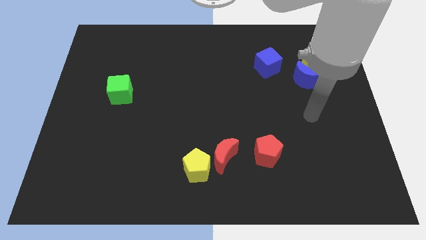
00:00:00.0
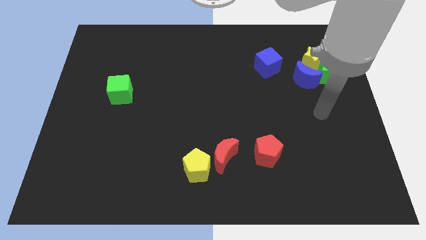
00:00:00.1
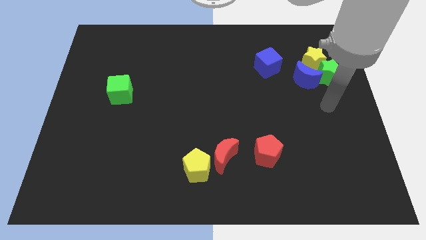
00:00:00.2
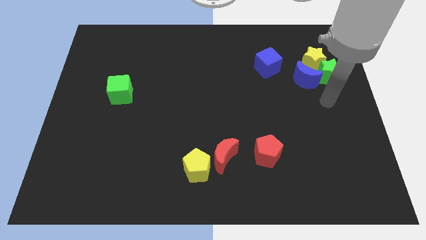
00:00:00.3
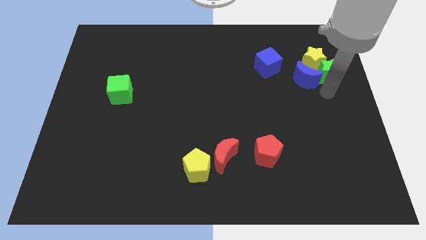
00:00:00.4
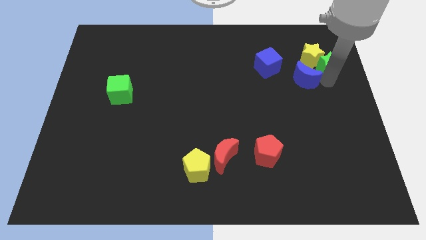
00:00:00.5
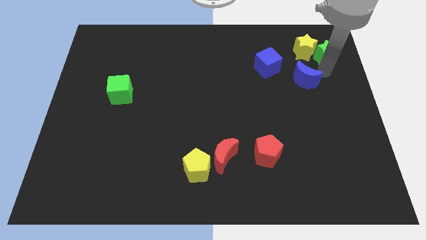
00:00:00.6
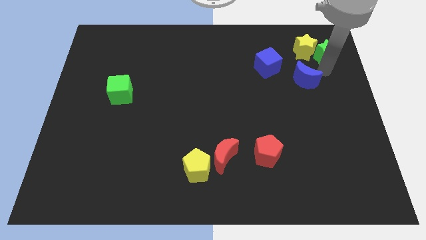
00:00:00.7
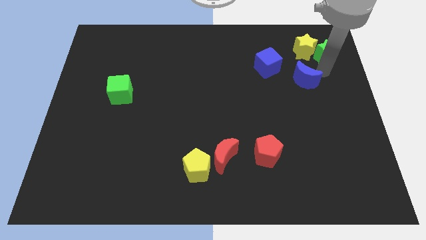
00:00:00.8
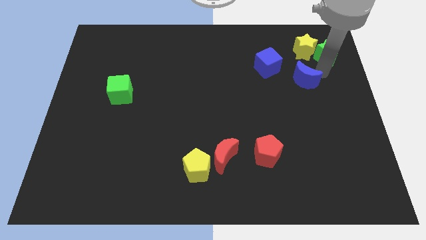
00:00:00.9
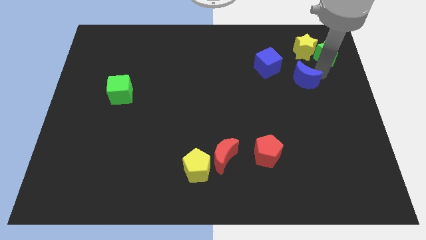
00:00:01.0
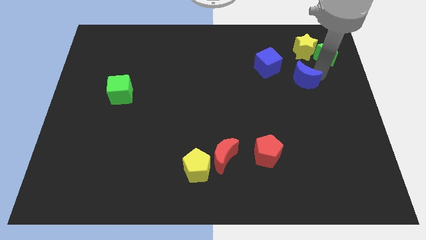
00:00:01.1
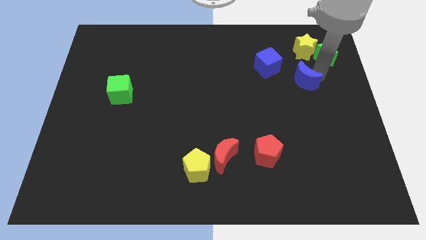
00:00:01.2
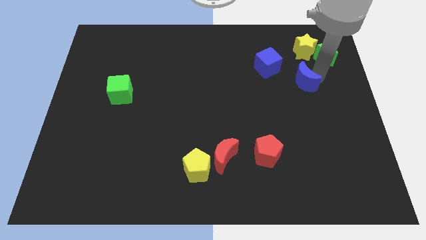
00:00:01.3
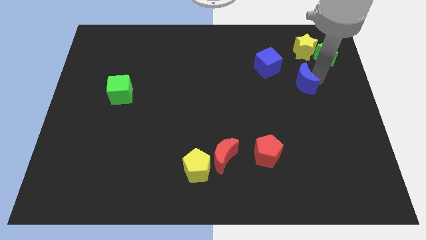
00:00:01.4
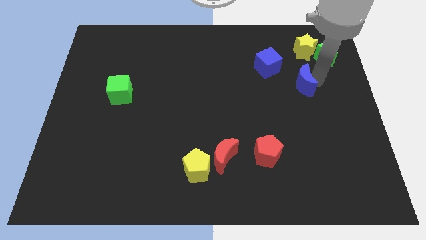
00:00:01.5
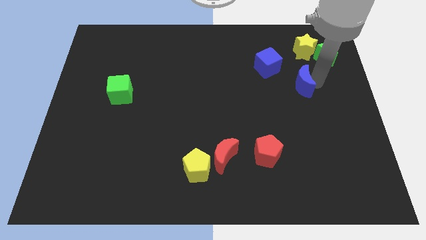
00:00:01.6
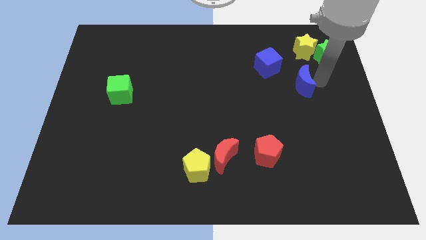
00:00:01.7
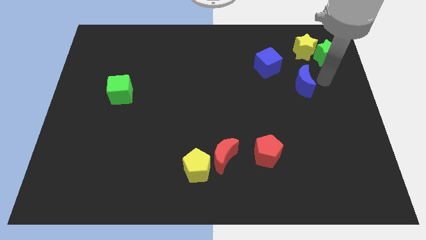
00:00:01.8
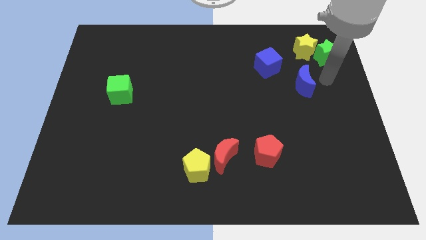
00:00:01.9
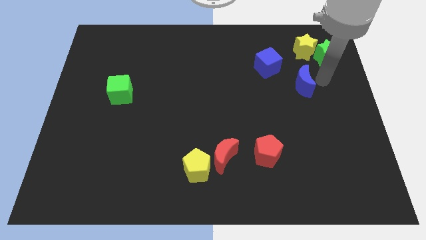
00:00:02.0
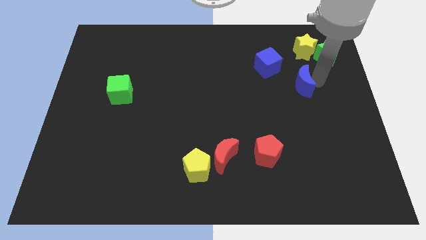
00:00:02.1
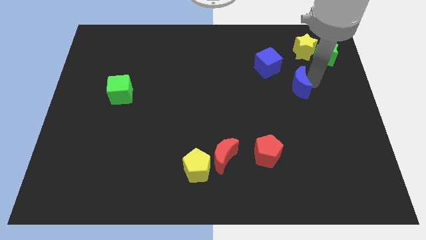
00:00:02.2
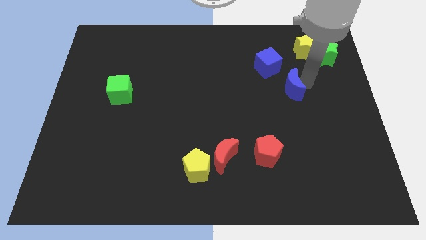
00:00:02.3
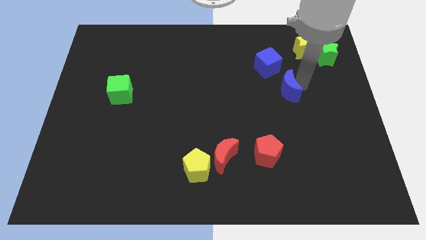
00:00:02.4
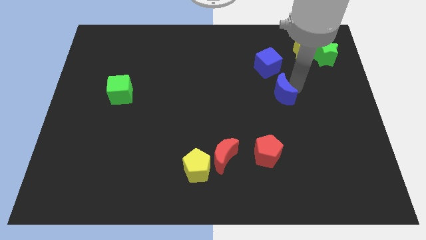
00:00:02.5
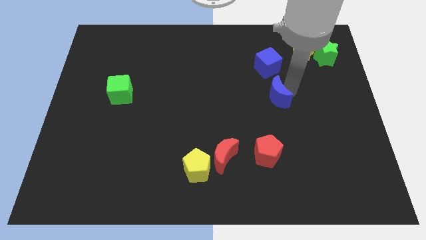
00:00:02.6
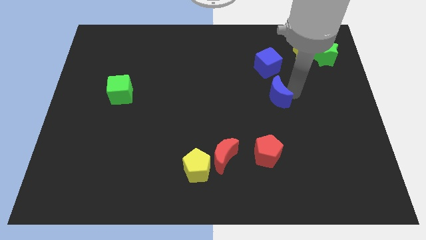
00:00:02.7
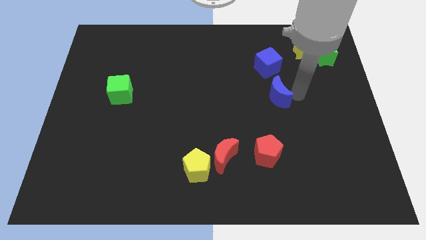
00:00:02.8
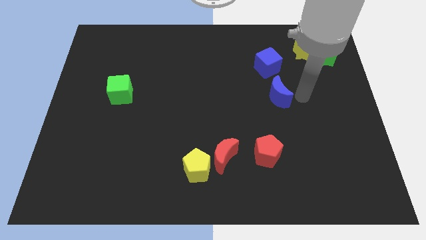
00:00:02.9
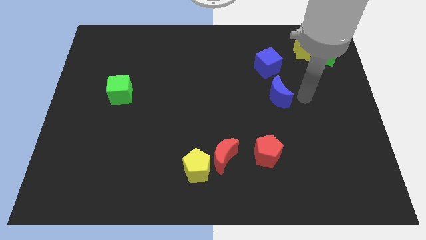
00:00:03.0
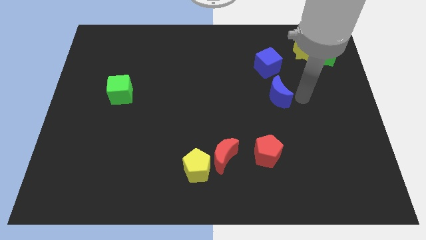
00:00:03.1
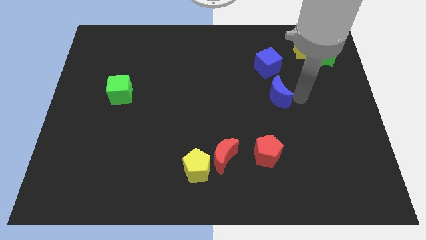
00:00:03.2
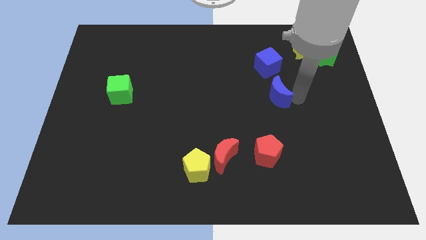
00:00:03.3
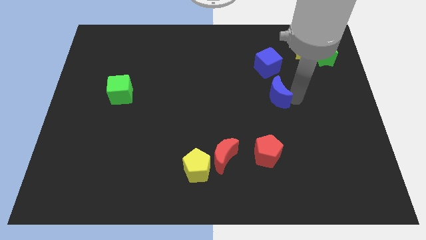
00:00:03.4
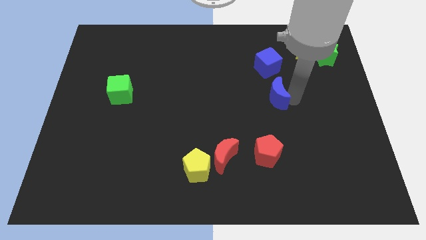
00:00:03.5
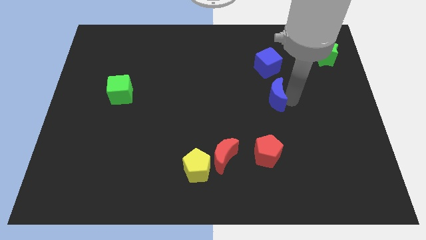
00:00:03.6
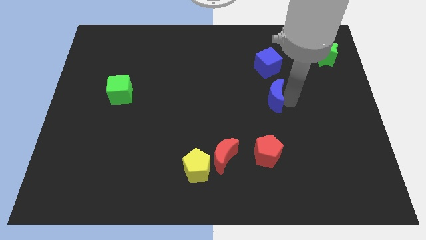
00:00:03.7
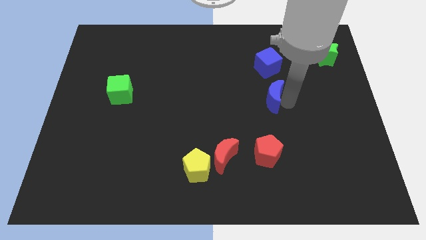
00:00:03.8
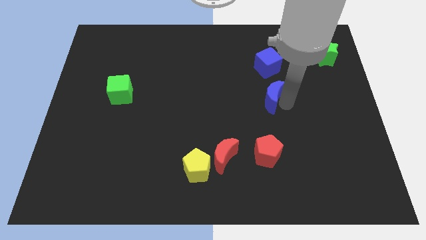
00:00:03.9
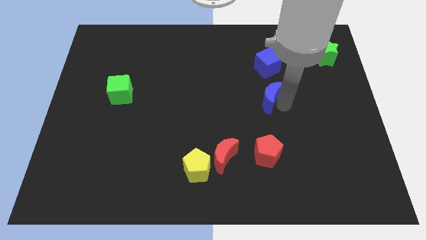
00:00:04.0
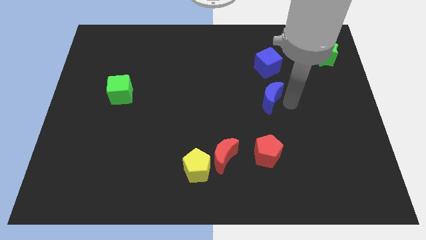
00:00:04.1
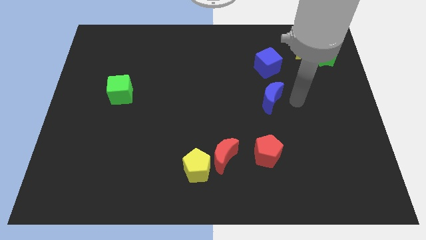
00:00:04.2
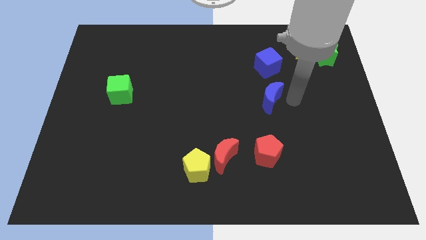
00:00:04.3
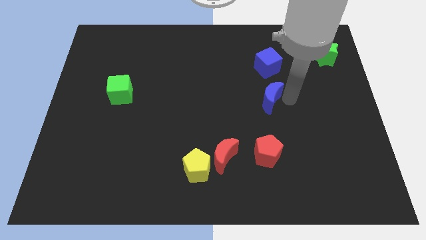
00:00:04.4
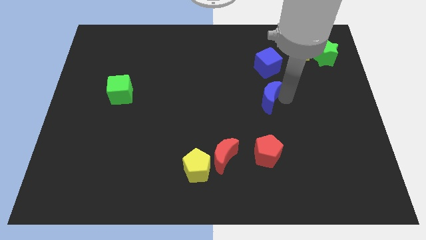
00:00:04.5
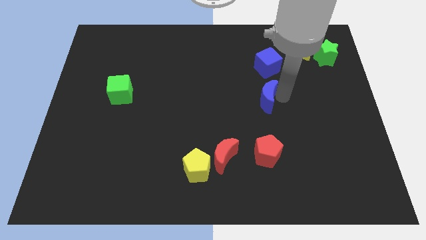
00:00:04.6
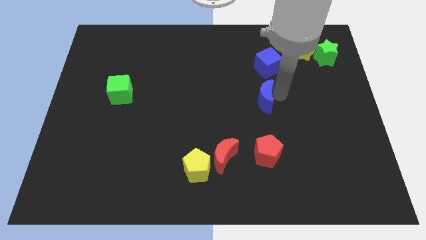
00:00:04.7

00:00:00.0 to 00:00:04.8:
slide the blue moon to the middle of the board

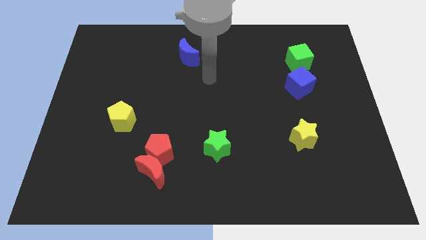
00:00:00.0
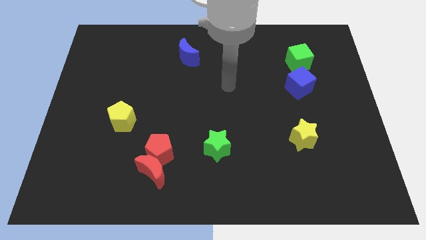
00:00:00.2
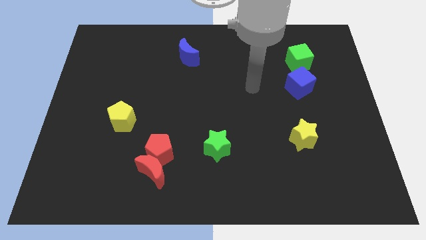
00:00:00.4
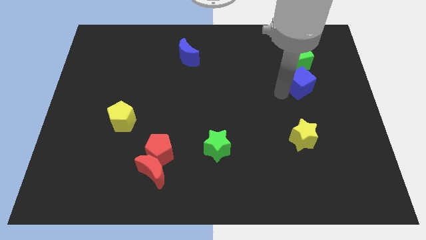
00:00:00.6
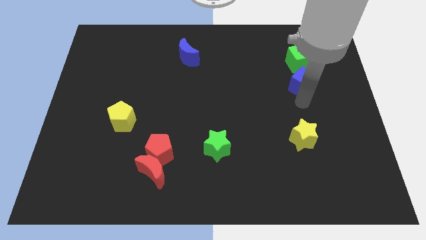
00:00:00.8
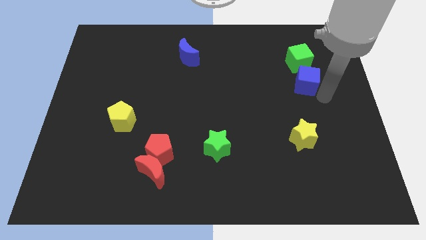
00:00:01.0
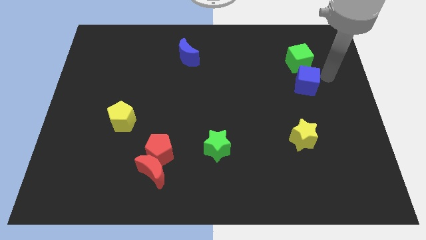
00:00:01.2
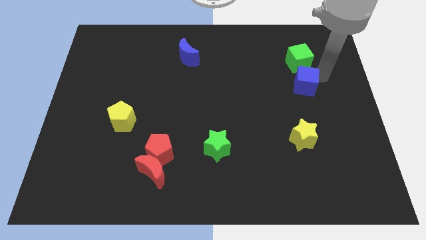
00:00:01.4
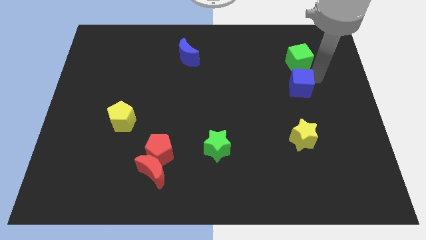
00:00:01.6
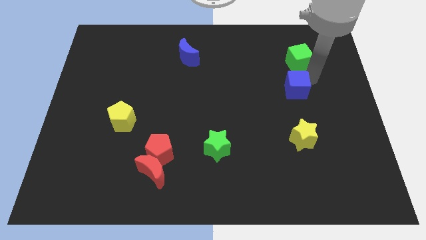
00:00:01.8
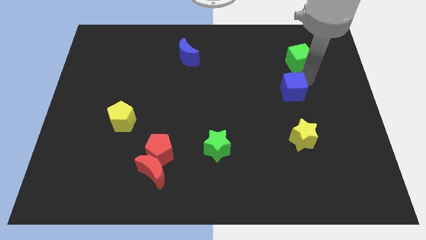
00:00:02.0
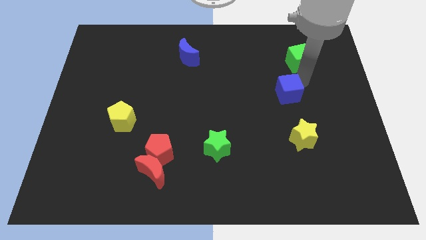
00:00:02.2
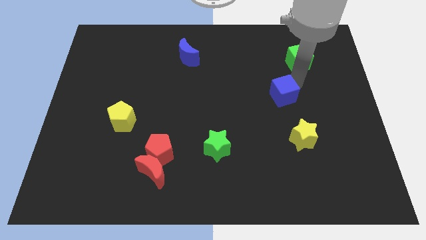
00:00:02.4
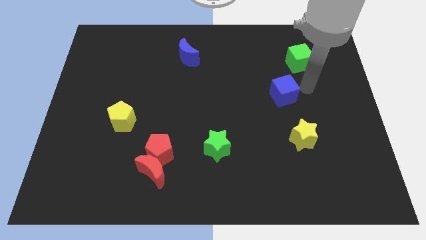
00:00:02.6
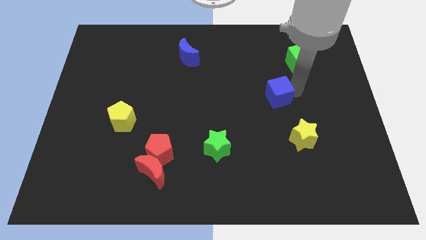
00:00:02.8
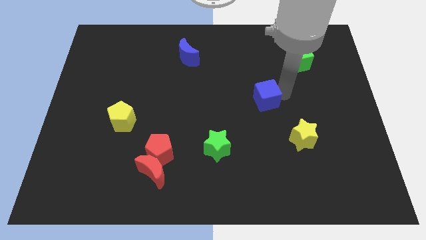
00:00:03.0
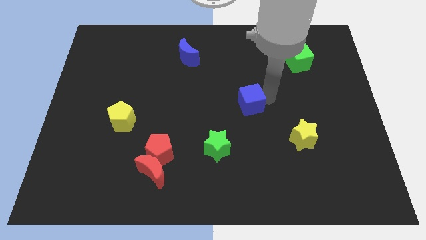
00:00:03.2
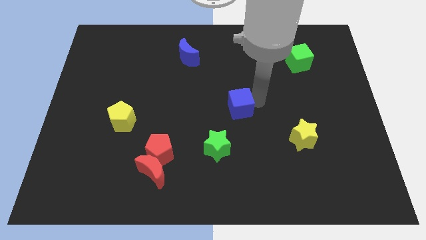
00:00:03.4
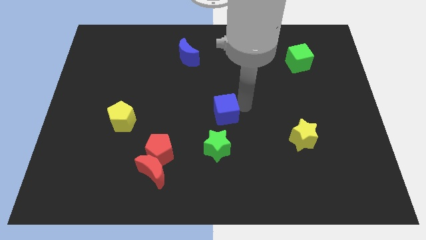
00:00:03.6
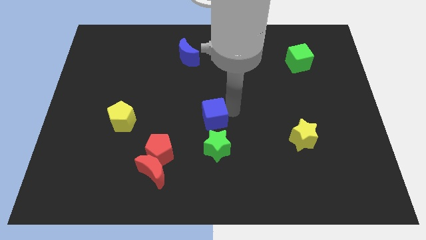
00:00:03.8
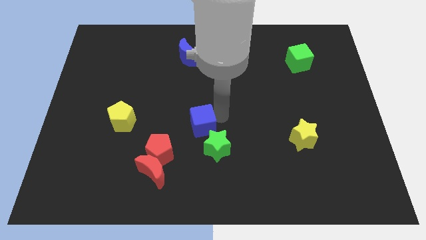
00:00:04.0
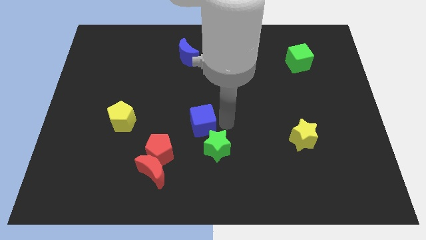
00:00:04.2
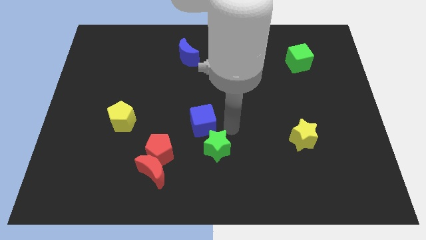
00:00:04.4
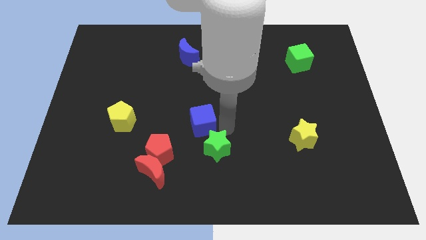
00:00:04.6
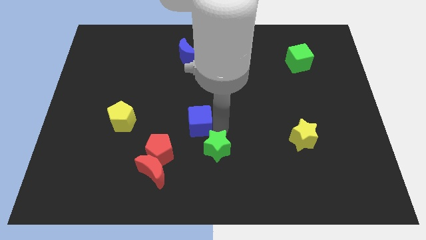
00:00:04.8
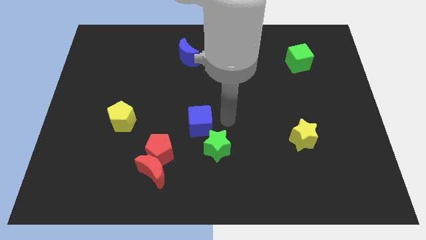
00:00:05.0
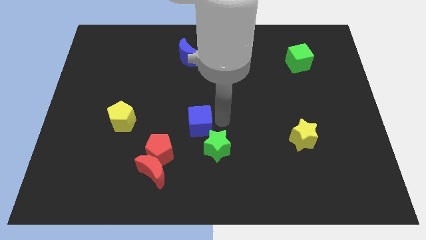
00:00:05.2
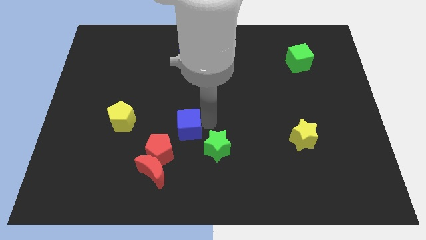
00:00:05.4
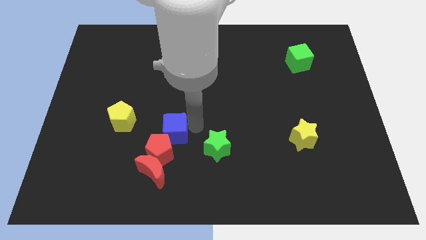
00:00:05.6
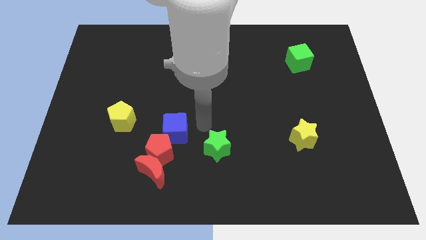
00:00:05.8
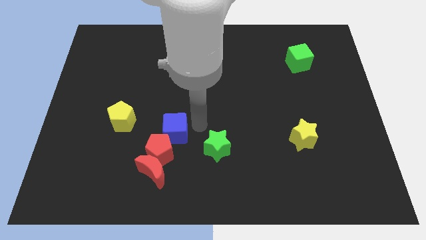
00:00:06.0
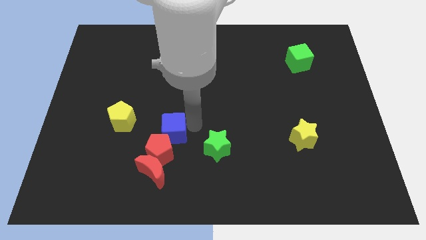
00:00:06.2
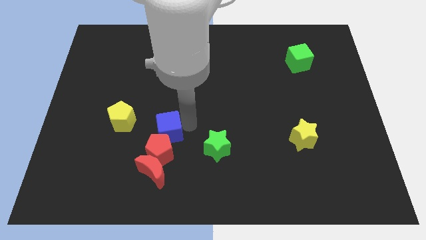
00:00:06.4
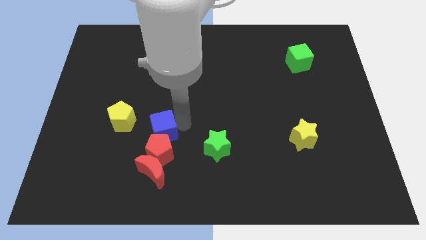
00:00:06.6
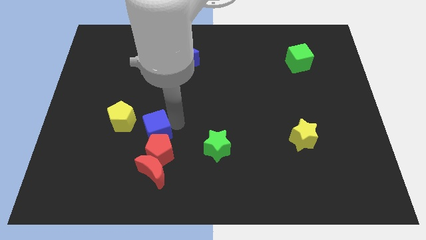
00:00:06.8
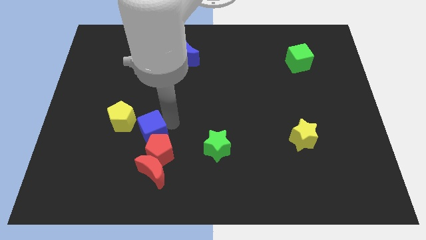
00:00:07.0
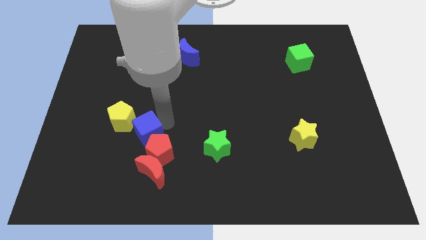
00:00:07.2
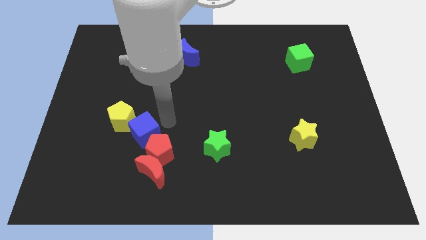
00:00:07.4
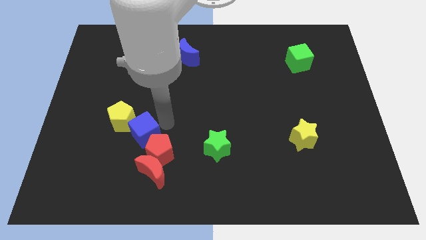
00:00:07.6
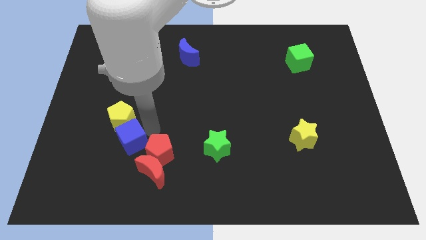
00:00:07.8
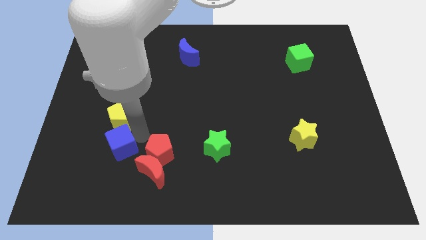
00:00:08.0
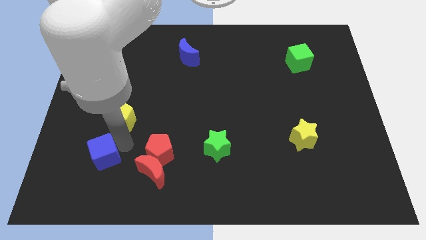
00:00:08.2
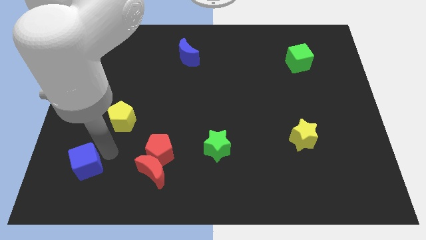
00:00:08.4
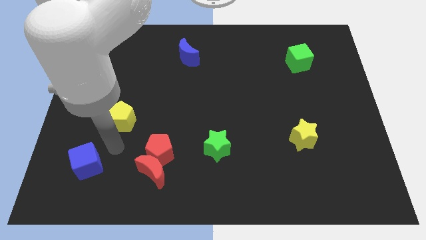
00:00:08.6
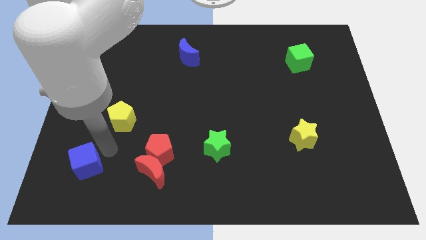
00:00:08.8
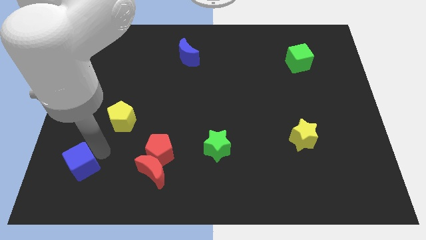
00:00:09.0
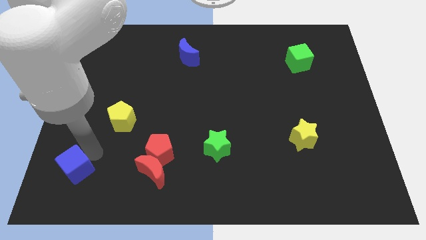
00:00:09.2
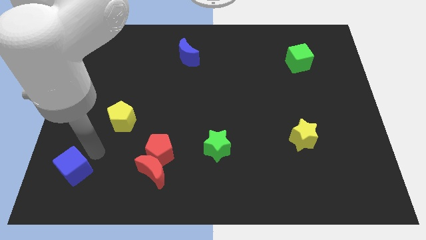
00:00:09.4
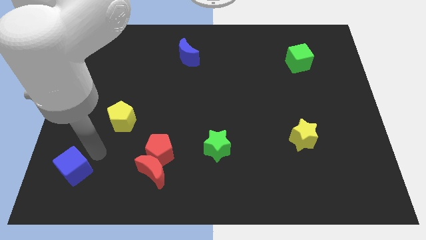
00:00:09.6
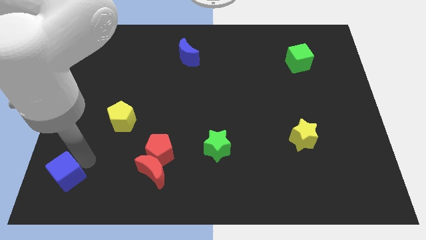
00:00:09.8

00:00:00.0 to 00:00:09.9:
put the blue cube to the bottom left of the board
